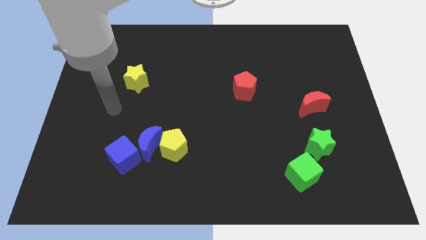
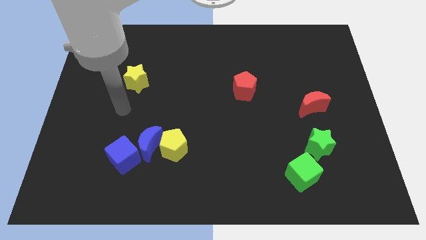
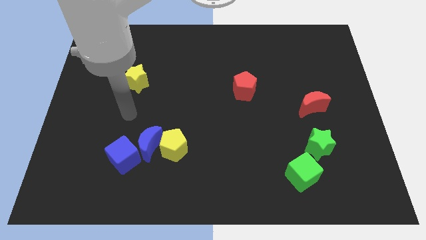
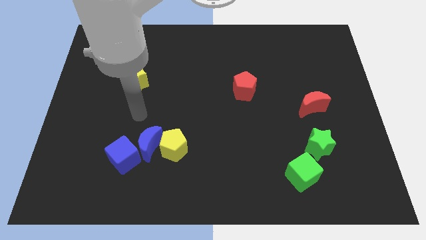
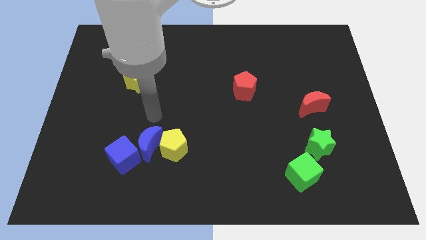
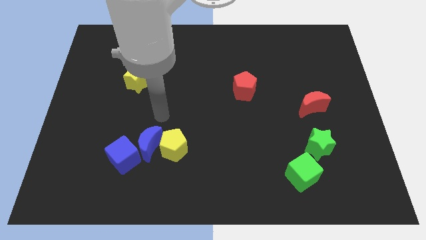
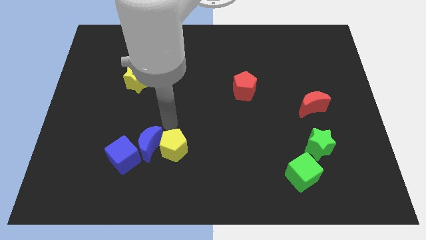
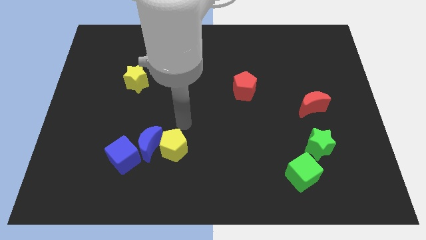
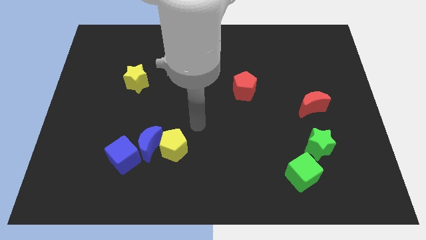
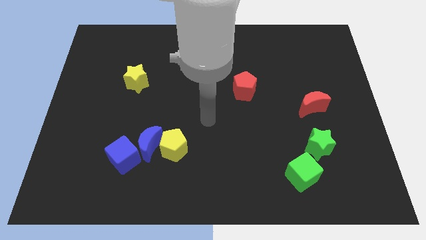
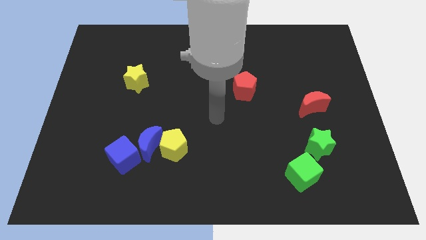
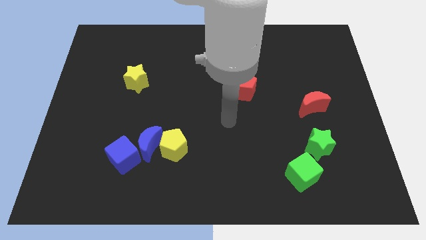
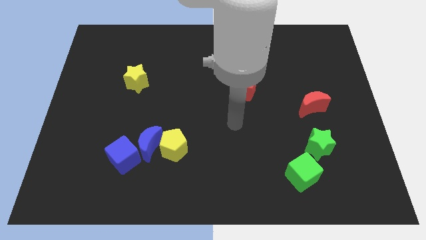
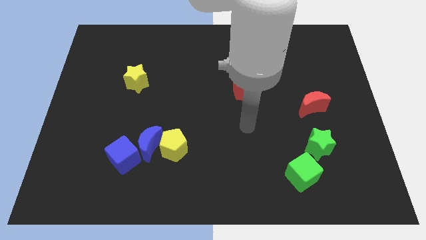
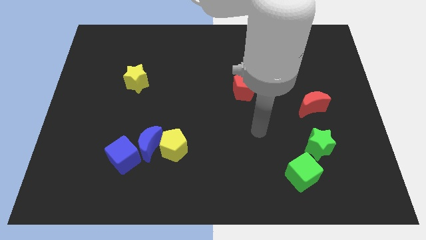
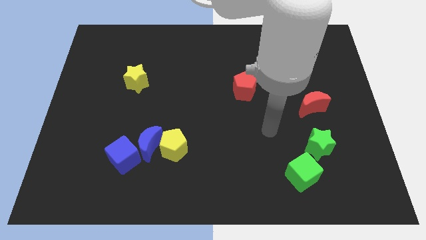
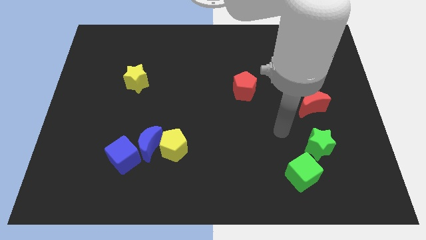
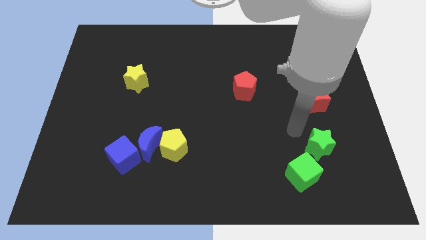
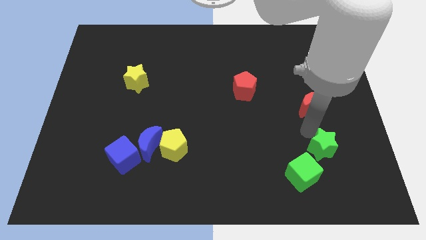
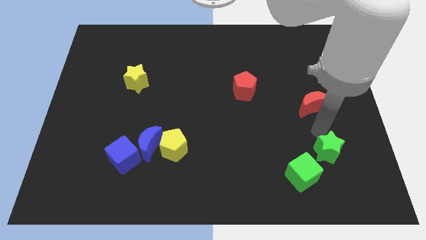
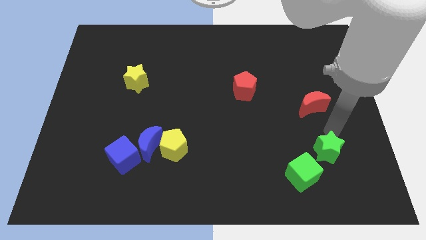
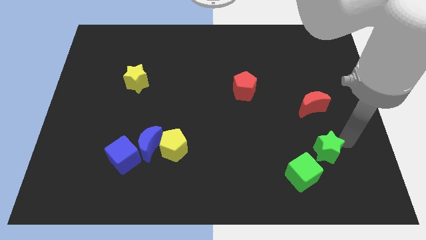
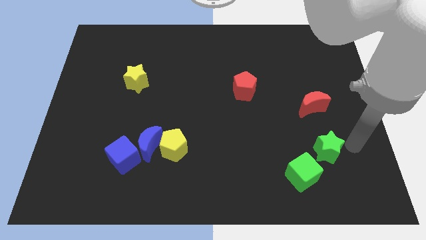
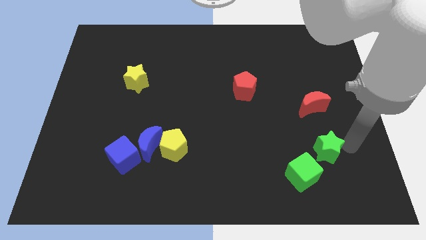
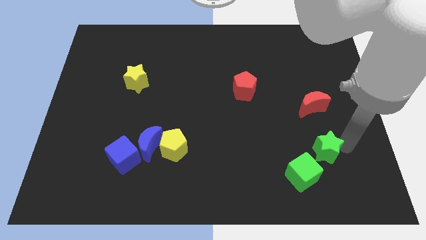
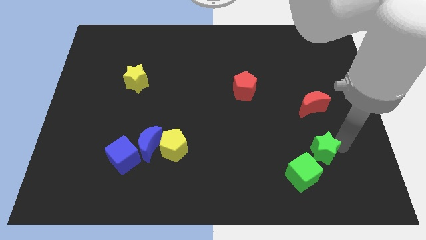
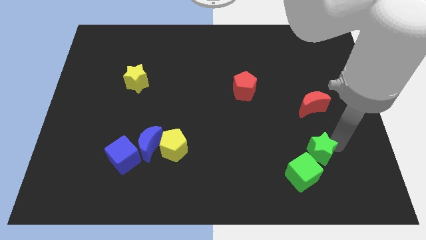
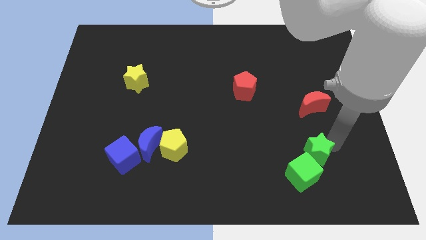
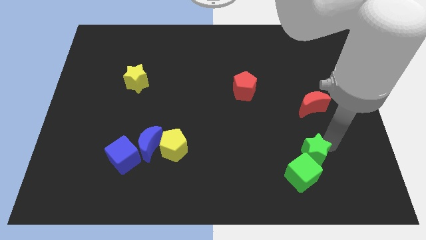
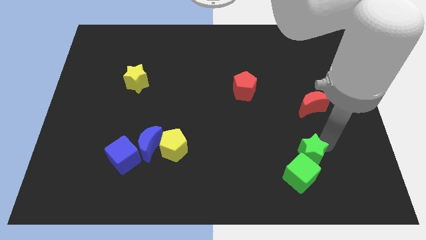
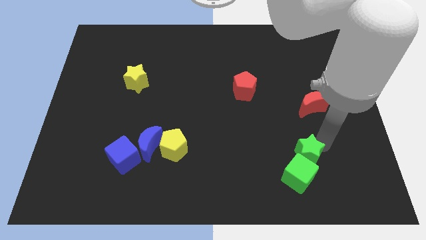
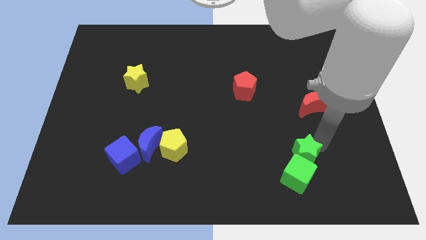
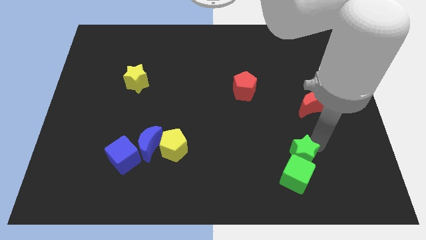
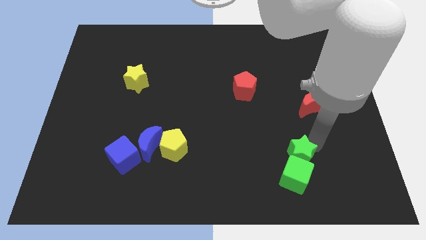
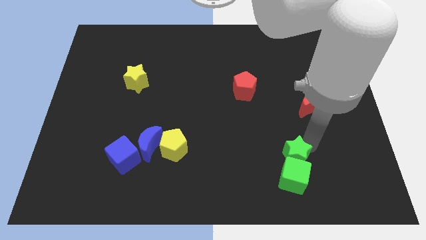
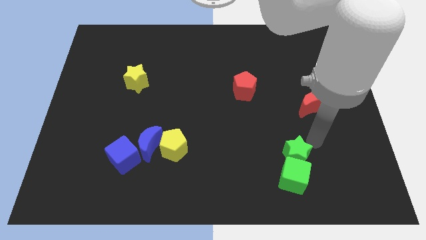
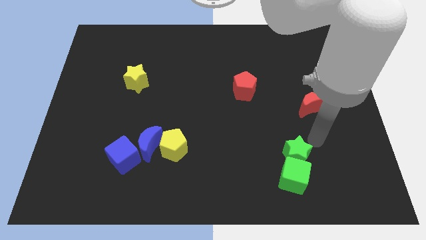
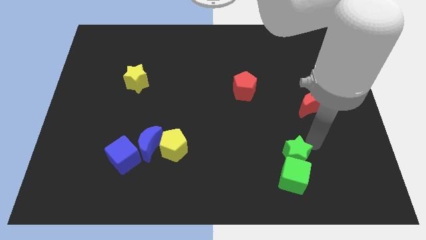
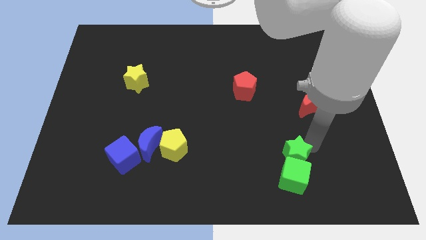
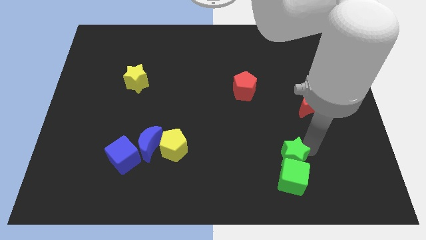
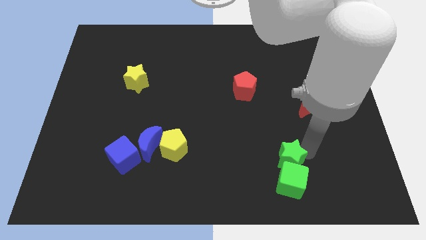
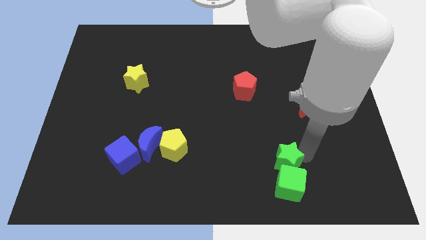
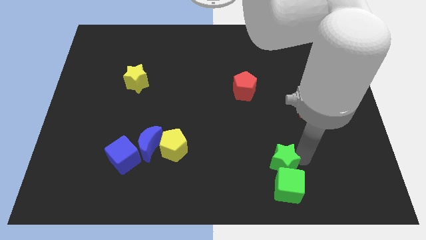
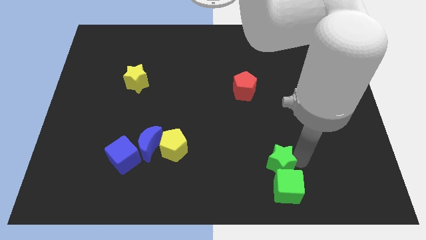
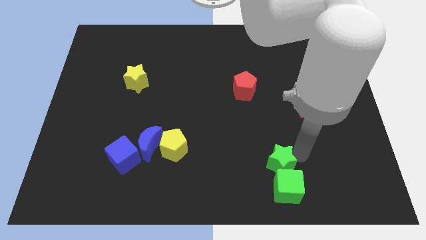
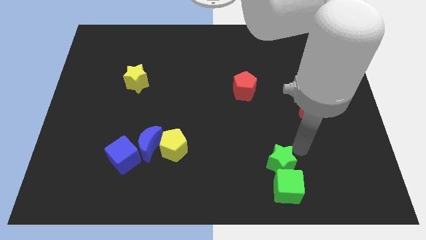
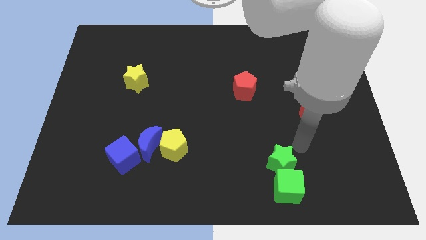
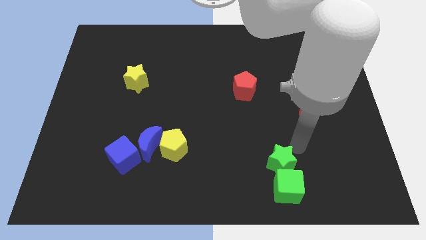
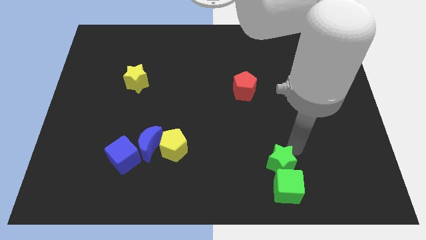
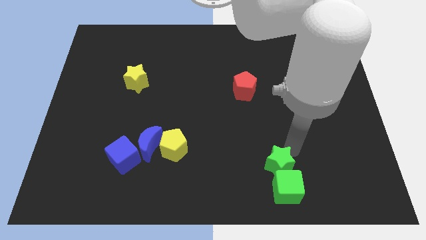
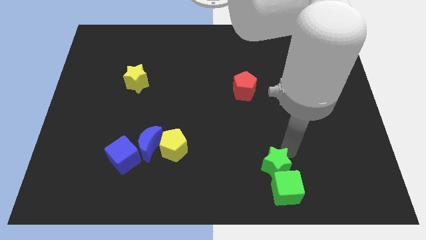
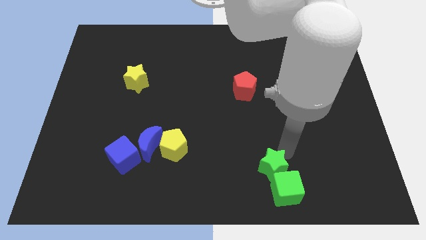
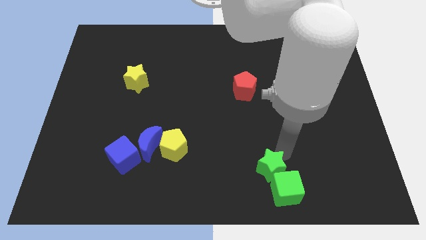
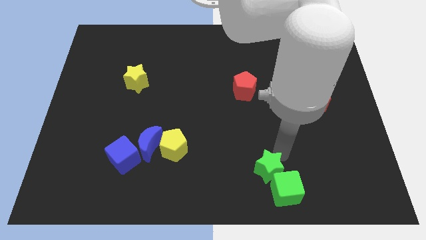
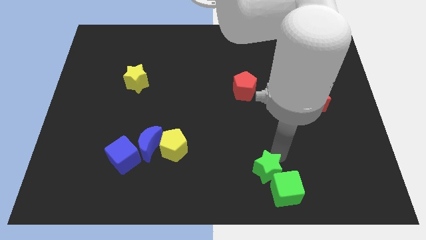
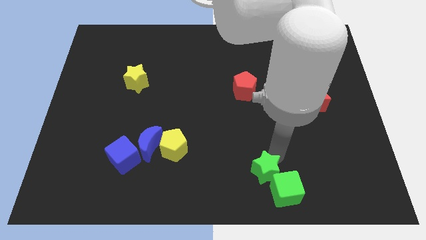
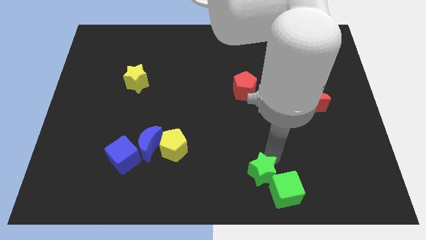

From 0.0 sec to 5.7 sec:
slide the green star to the bottom

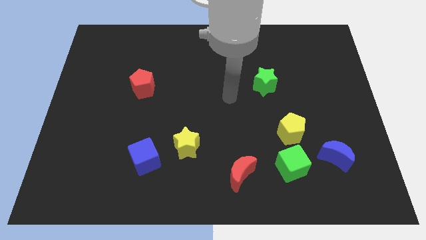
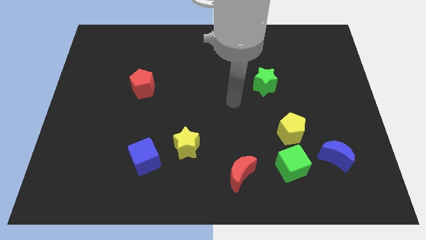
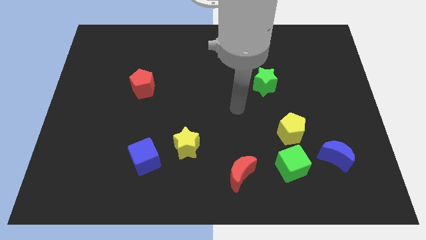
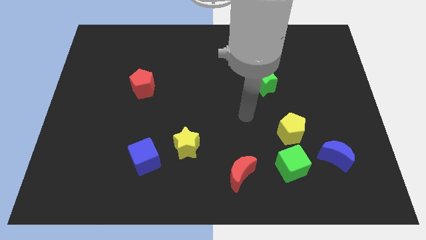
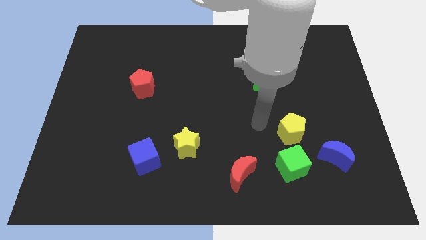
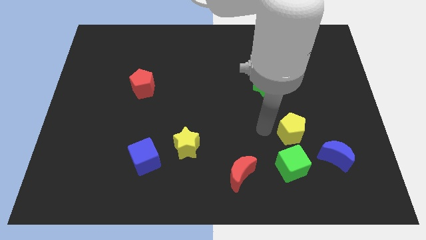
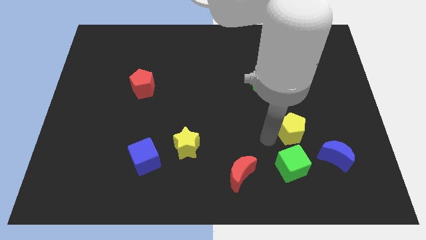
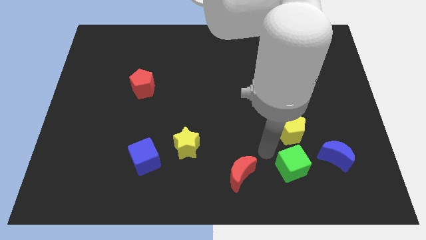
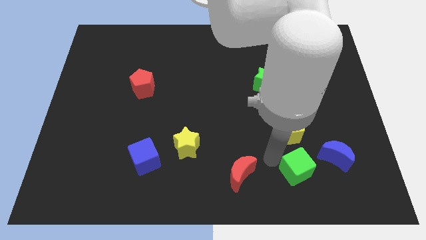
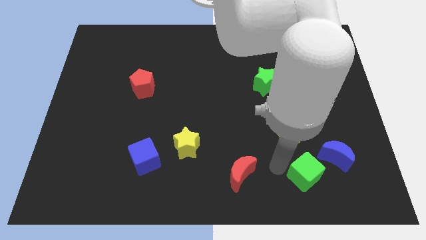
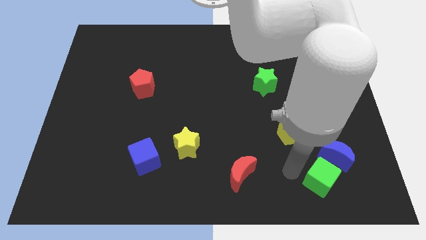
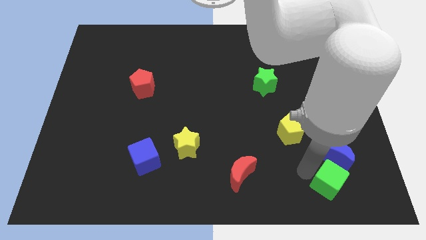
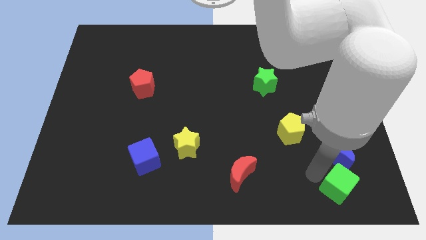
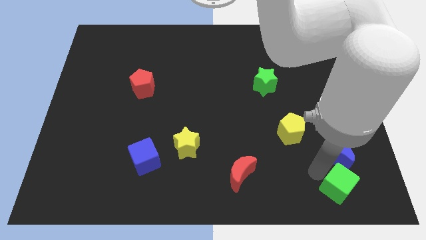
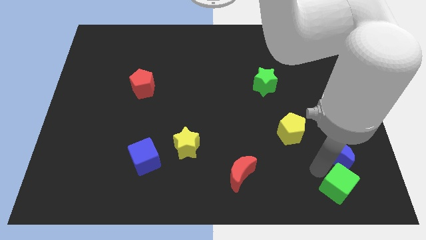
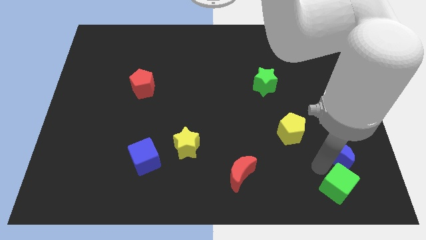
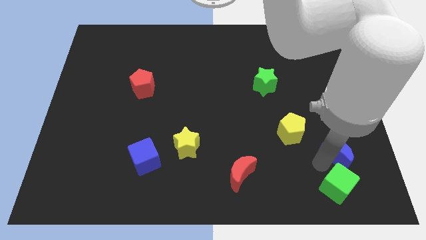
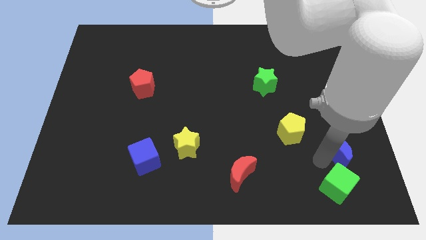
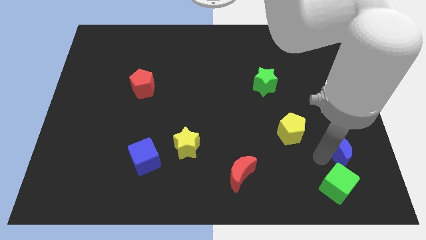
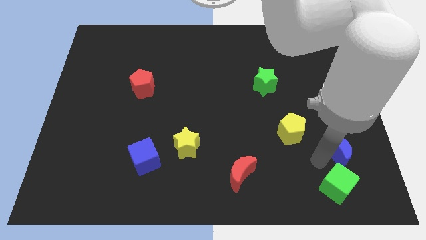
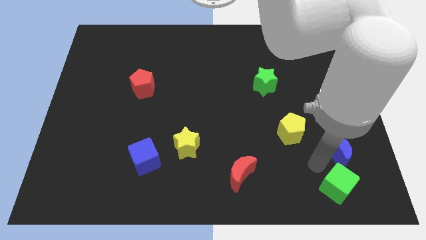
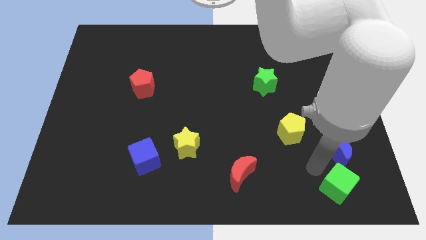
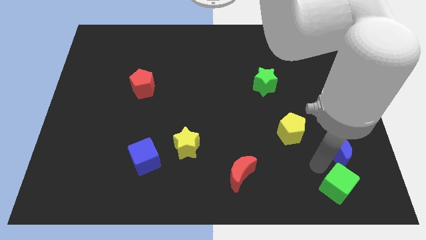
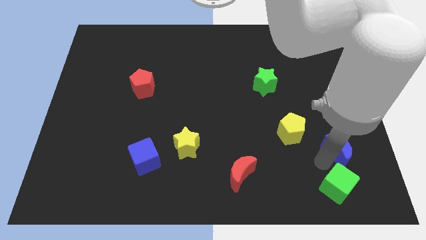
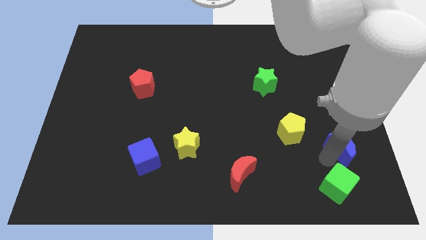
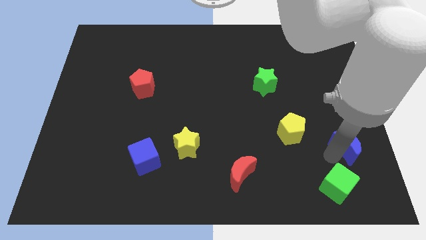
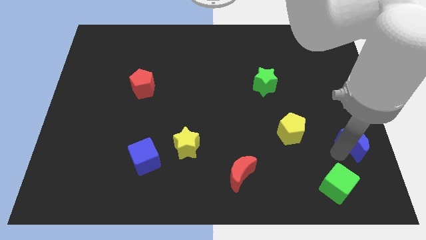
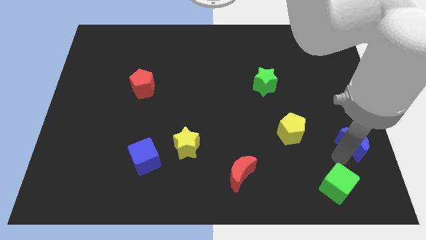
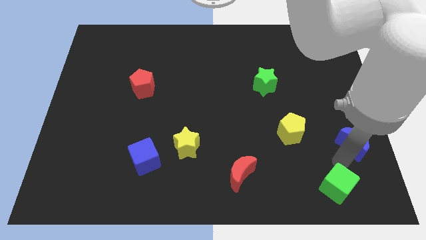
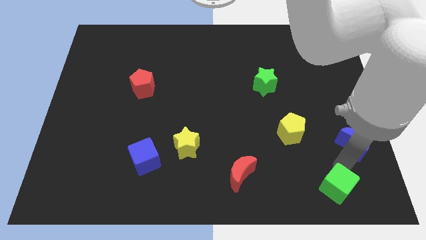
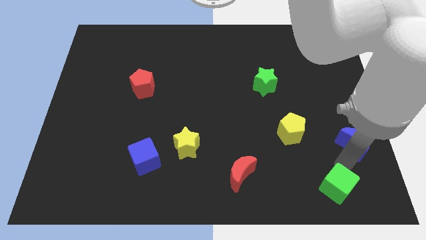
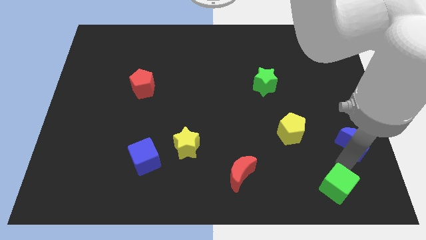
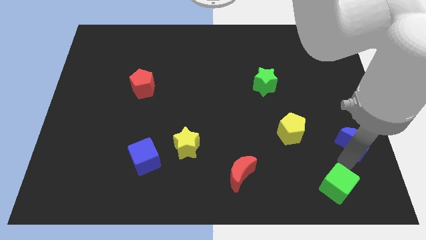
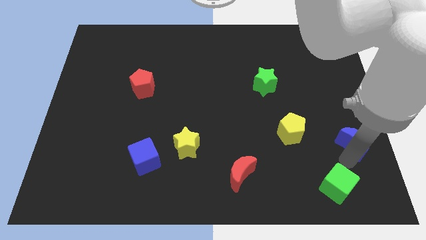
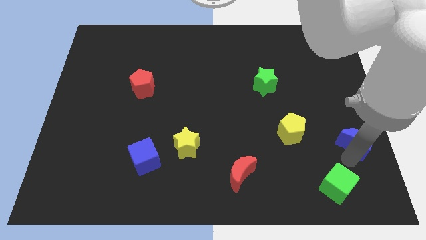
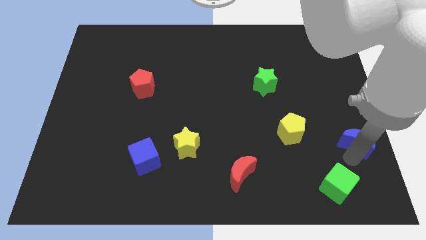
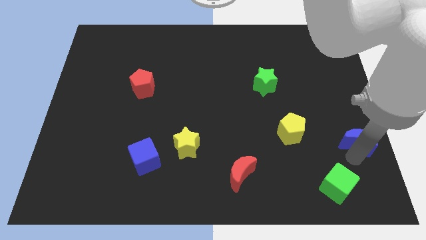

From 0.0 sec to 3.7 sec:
put the blue moon to the right side of the board
